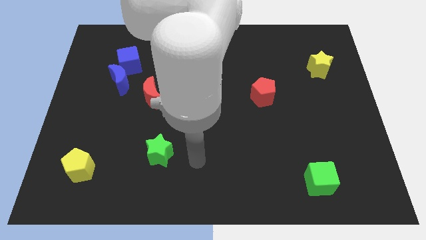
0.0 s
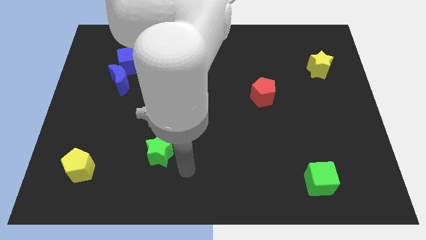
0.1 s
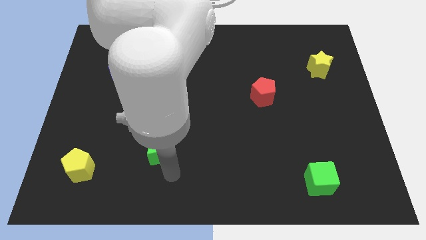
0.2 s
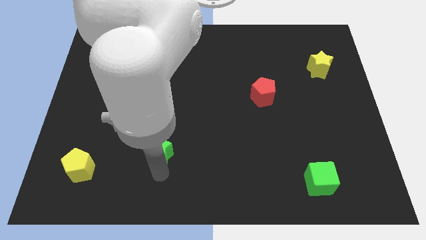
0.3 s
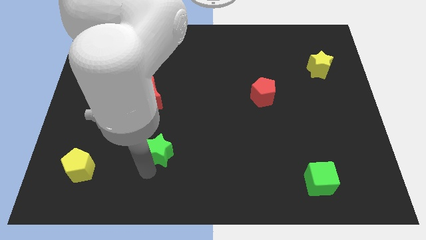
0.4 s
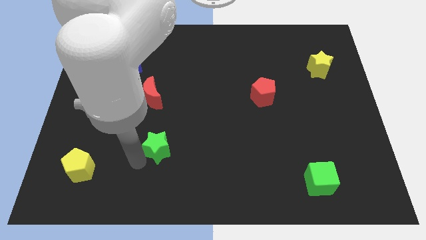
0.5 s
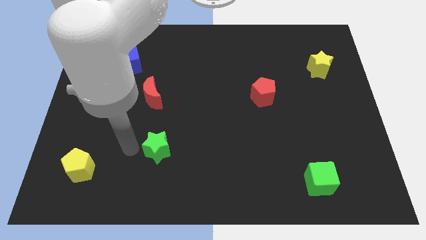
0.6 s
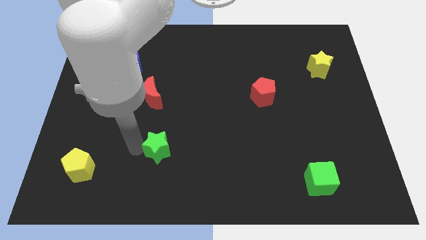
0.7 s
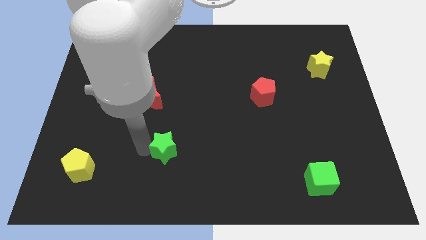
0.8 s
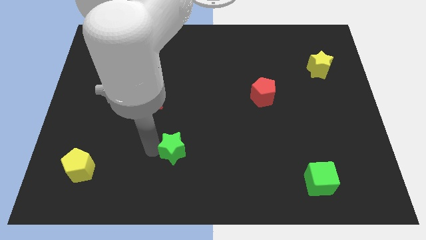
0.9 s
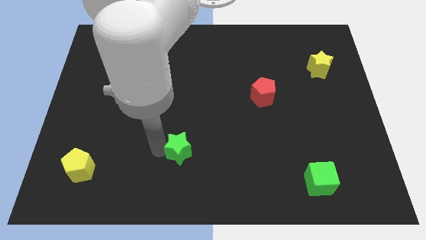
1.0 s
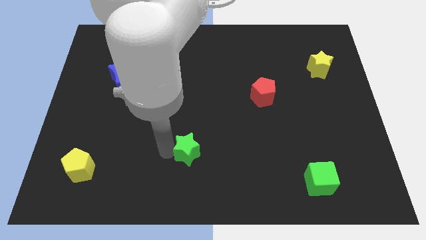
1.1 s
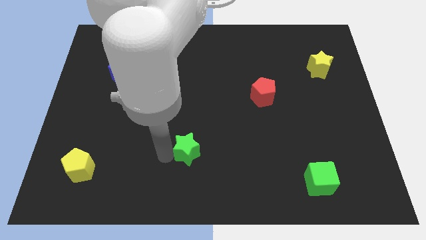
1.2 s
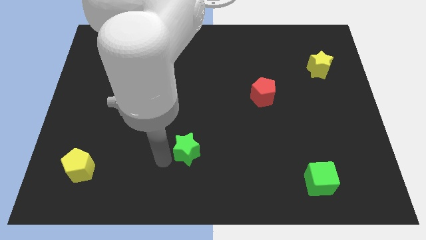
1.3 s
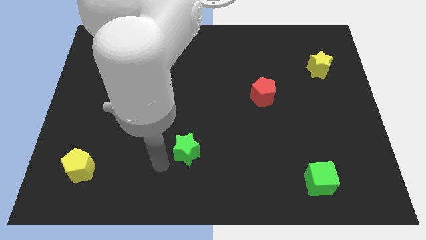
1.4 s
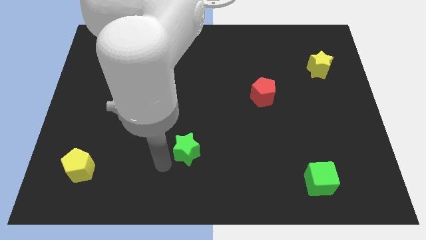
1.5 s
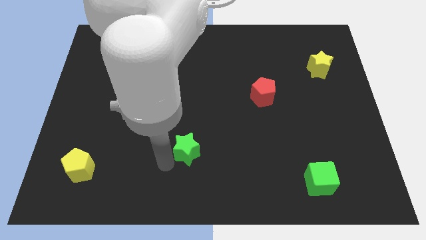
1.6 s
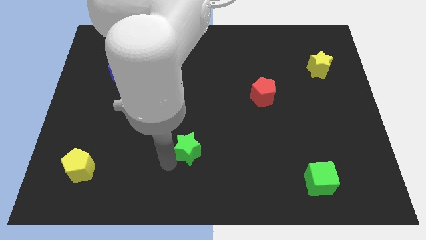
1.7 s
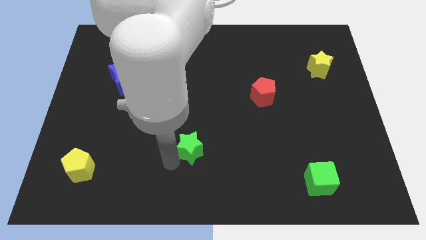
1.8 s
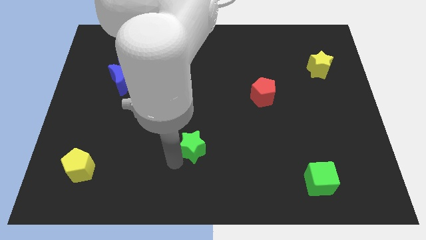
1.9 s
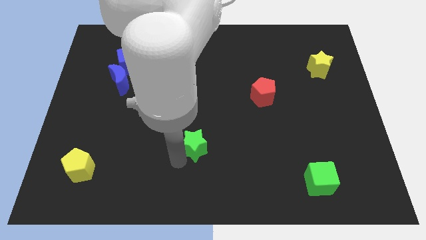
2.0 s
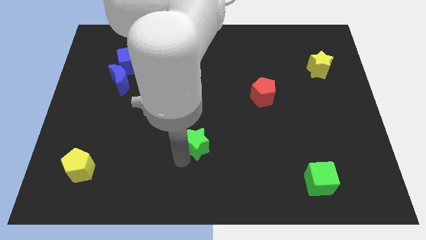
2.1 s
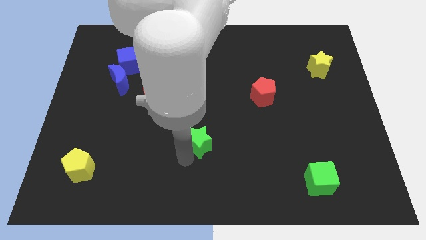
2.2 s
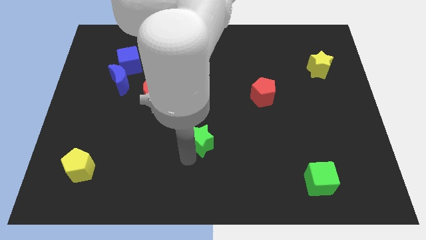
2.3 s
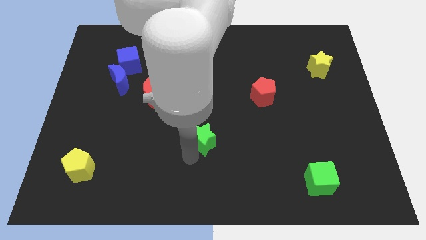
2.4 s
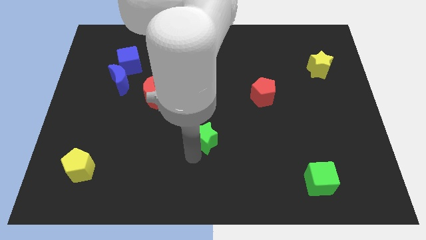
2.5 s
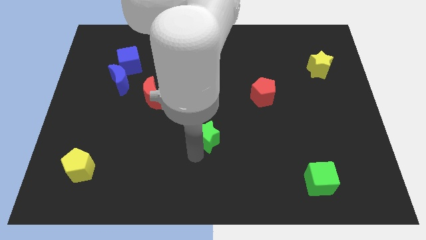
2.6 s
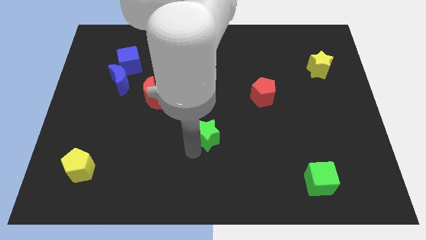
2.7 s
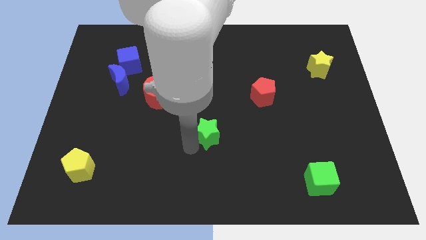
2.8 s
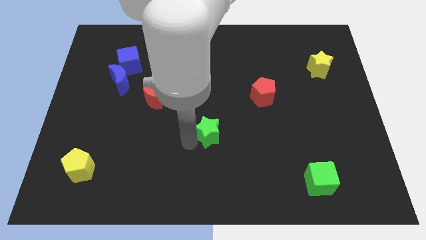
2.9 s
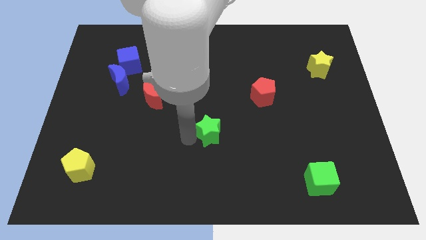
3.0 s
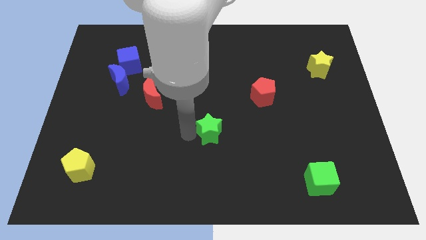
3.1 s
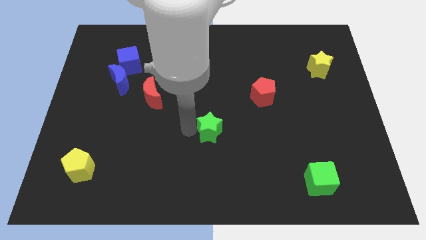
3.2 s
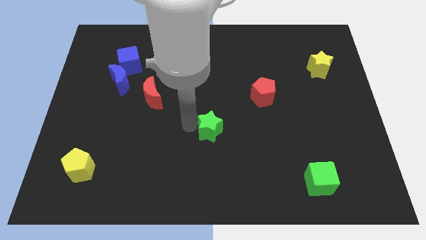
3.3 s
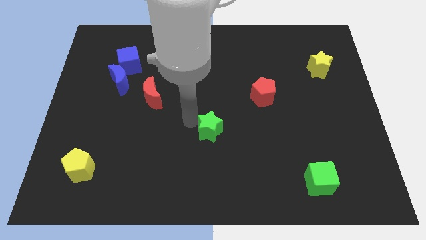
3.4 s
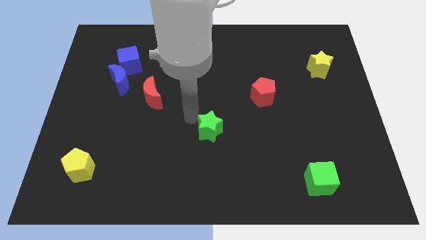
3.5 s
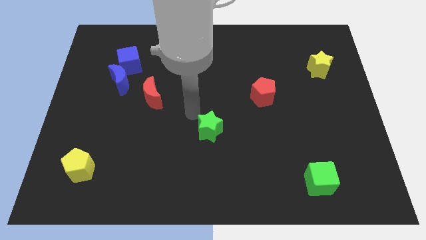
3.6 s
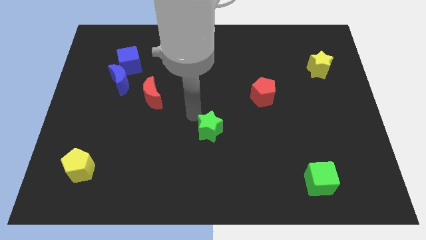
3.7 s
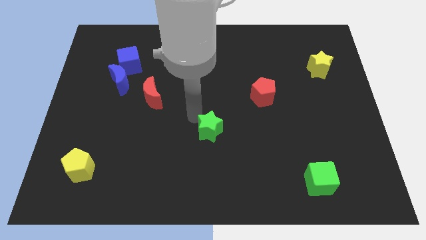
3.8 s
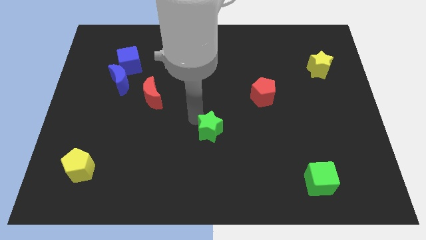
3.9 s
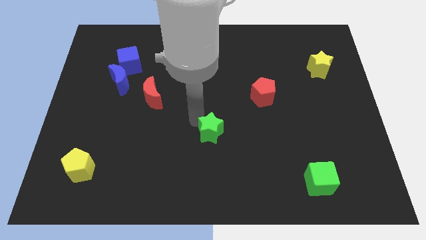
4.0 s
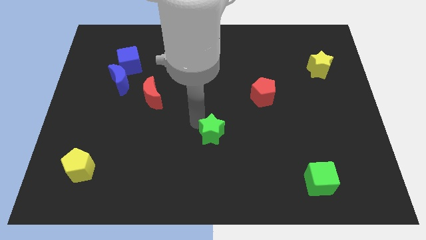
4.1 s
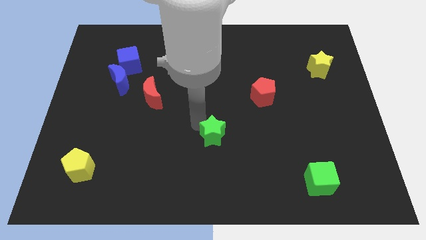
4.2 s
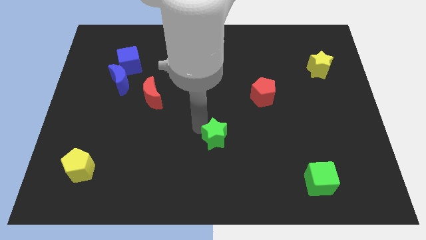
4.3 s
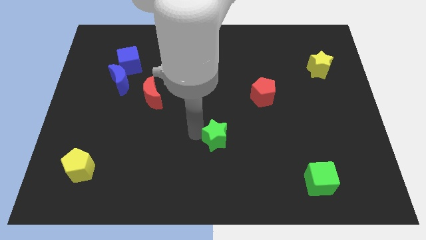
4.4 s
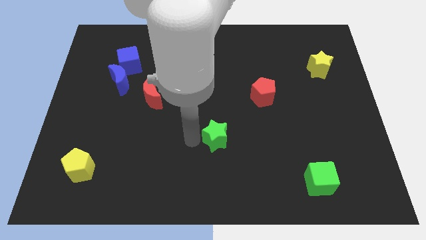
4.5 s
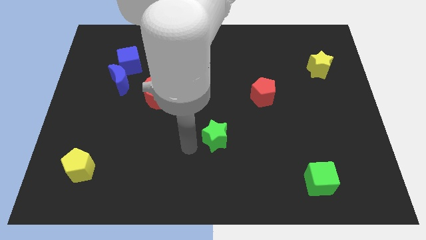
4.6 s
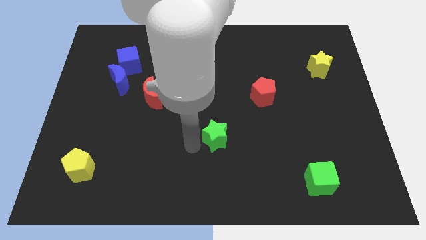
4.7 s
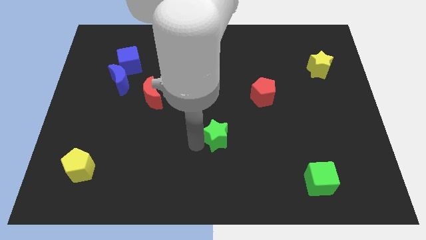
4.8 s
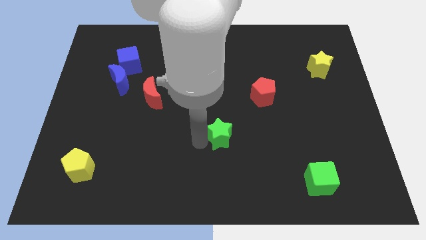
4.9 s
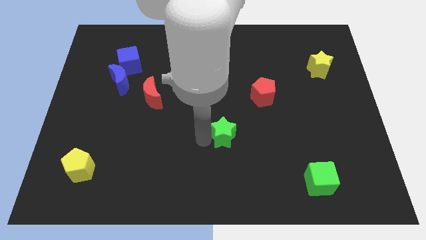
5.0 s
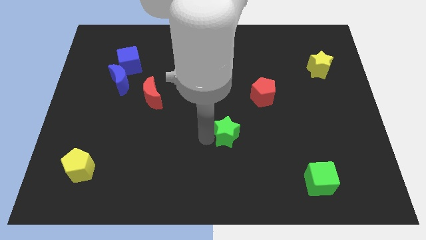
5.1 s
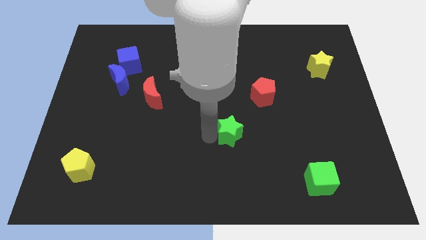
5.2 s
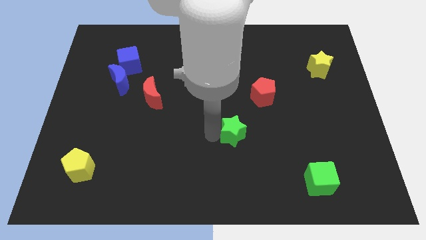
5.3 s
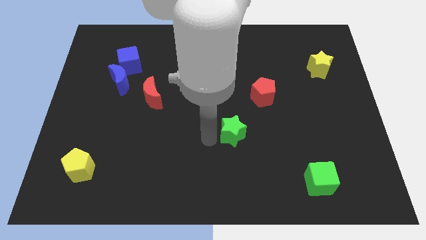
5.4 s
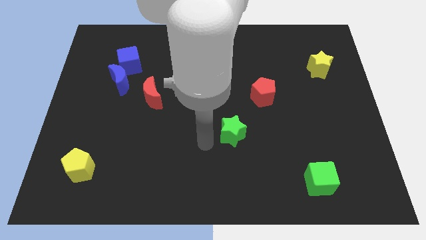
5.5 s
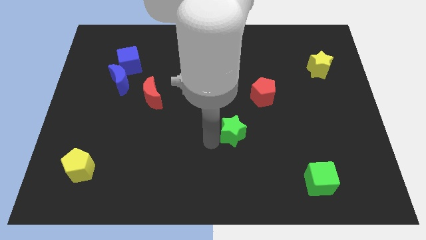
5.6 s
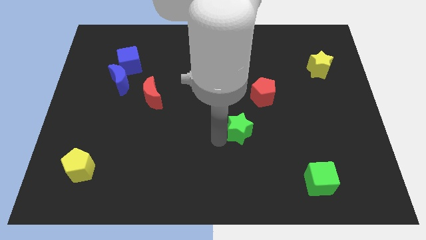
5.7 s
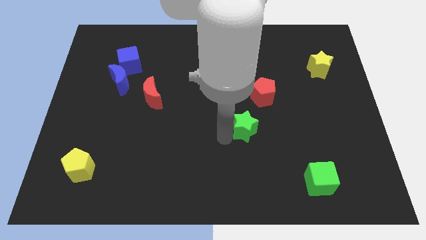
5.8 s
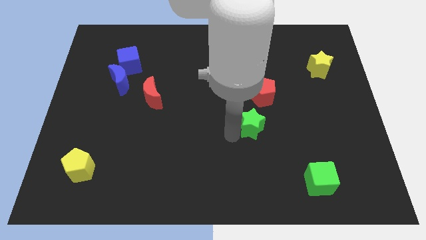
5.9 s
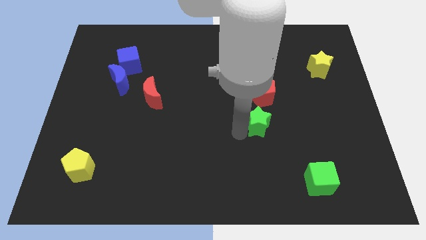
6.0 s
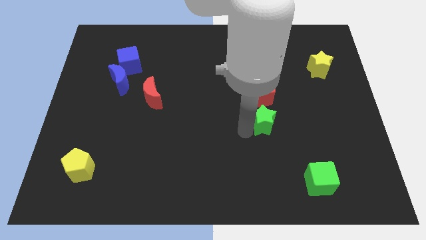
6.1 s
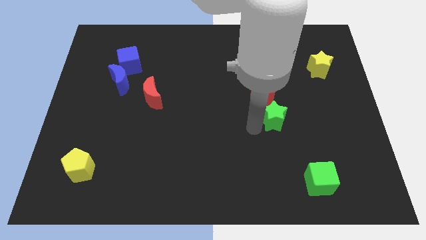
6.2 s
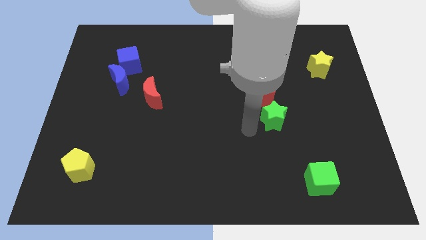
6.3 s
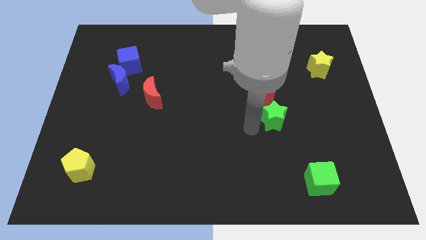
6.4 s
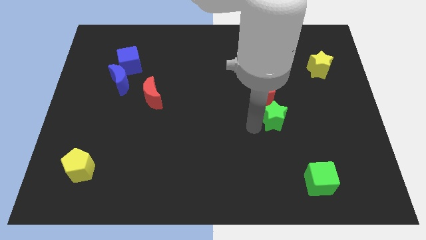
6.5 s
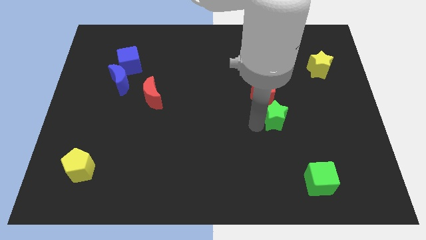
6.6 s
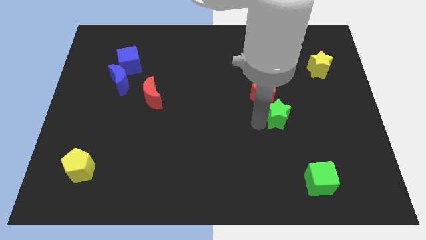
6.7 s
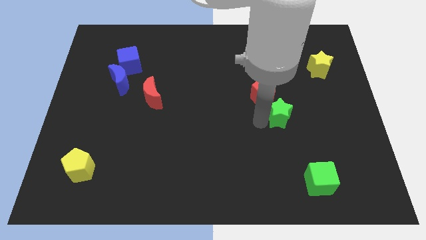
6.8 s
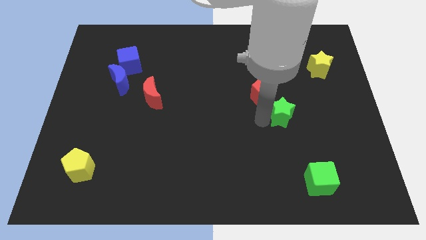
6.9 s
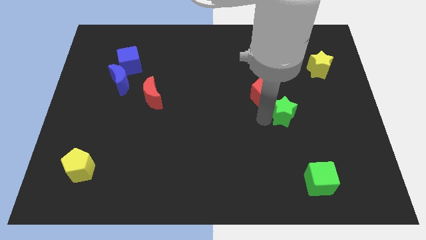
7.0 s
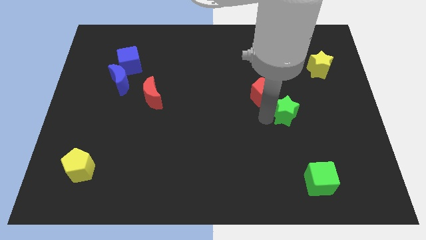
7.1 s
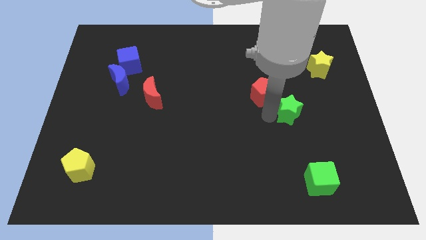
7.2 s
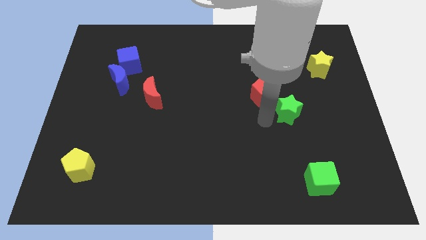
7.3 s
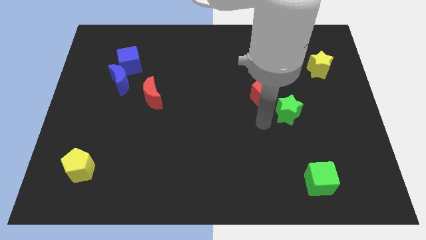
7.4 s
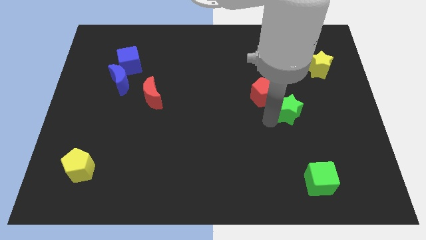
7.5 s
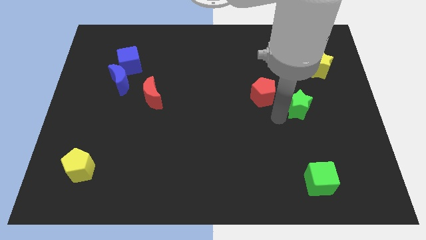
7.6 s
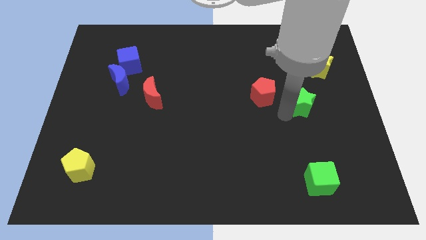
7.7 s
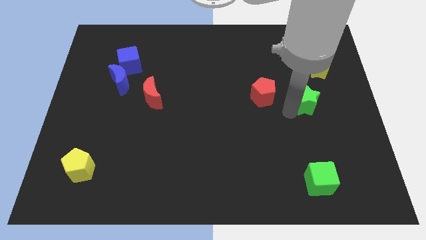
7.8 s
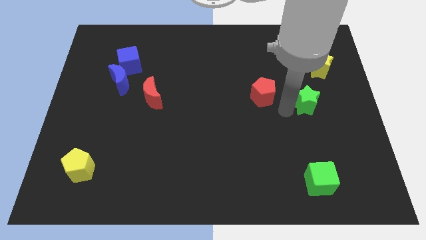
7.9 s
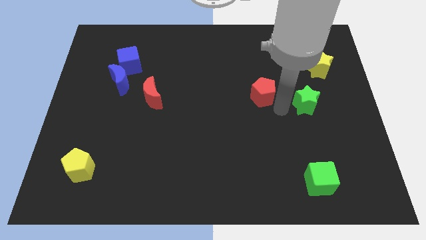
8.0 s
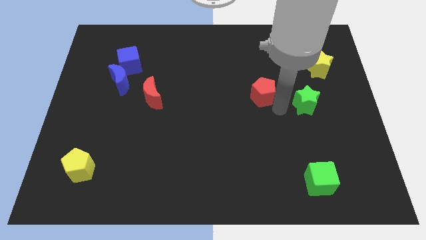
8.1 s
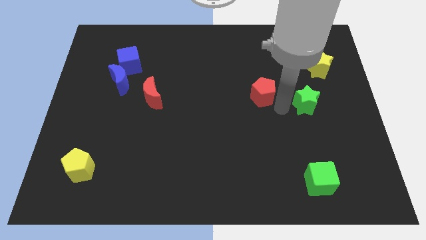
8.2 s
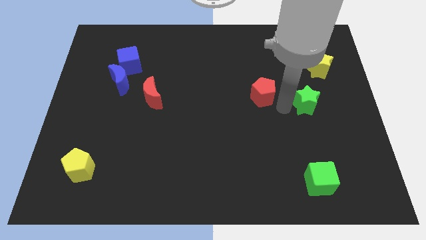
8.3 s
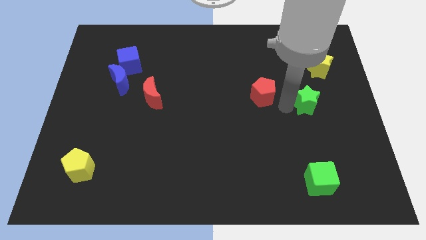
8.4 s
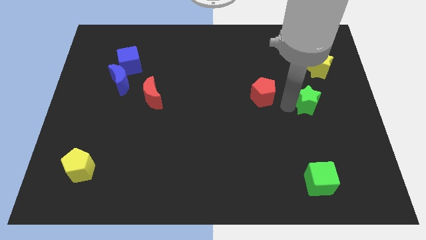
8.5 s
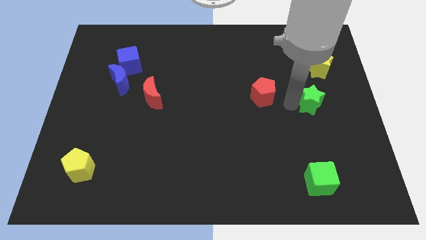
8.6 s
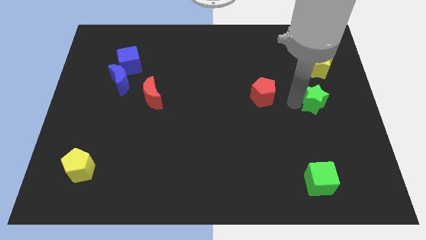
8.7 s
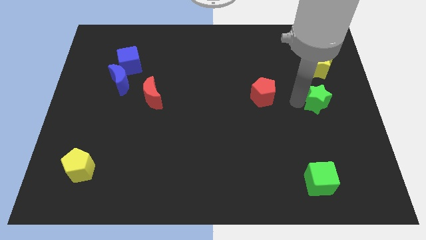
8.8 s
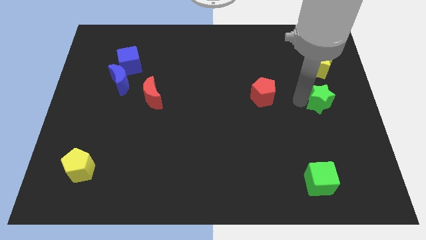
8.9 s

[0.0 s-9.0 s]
push the green star to the center right
